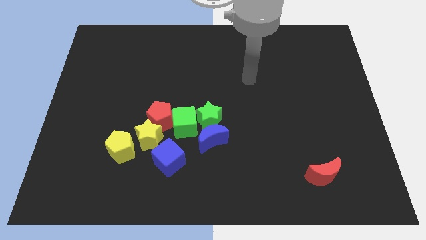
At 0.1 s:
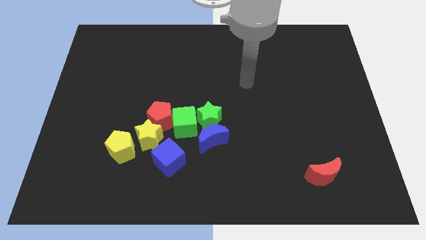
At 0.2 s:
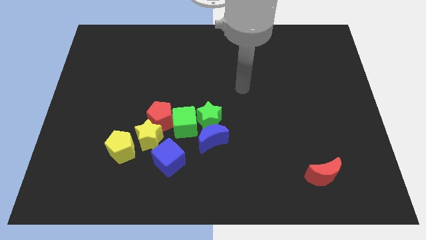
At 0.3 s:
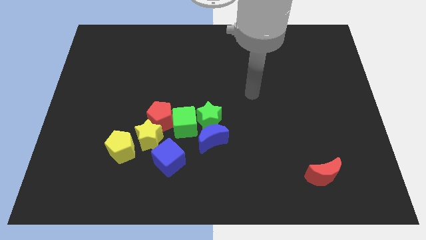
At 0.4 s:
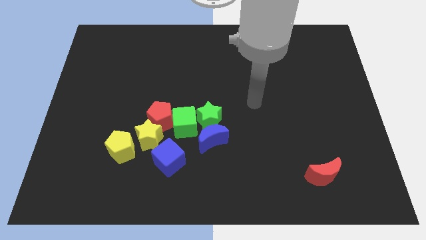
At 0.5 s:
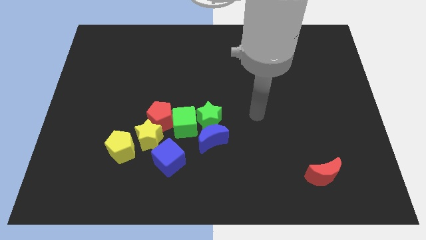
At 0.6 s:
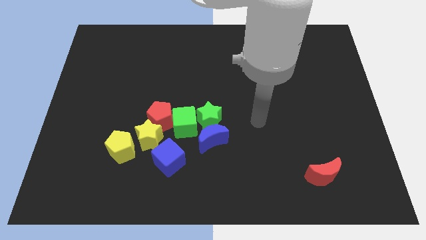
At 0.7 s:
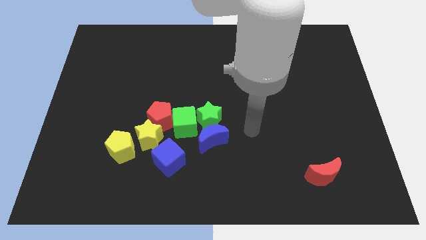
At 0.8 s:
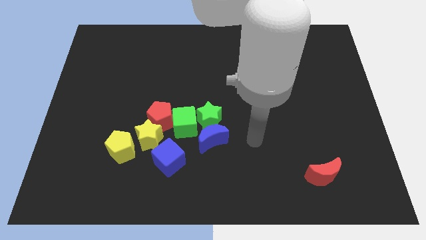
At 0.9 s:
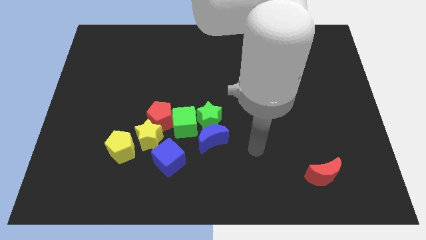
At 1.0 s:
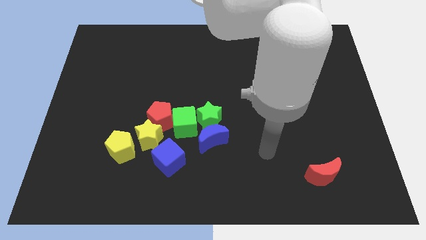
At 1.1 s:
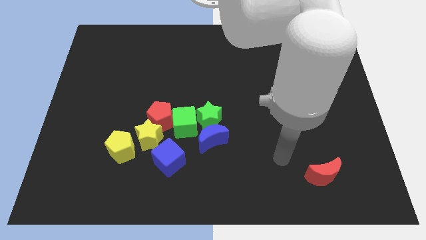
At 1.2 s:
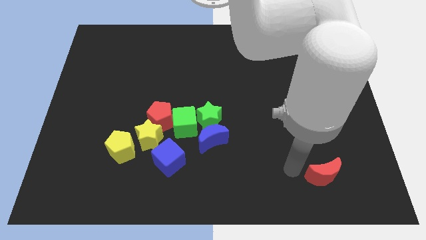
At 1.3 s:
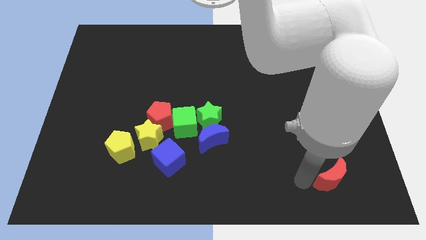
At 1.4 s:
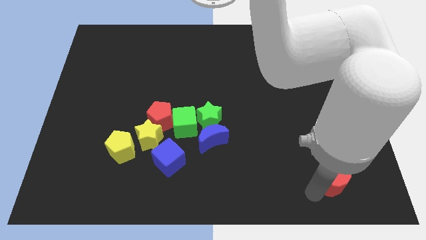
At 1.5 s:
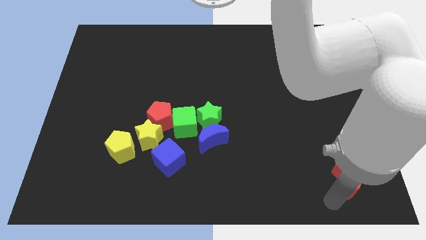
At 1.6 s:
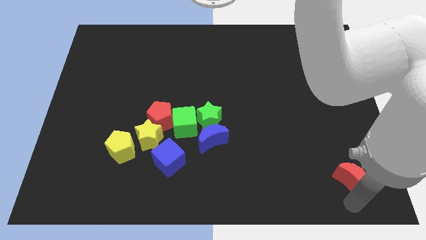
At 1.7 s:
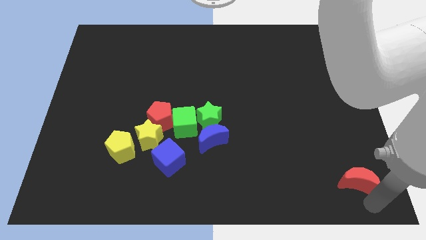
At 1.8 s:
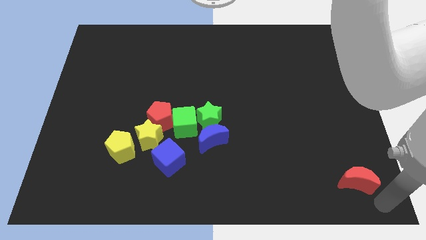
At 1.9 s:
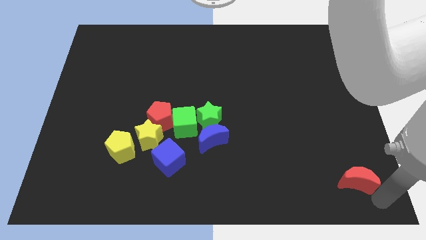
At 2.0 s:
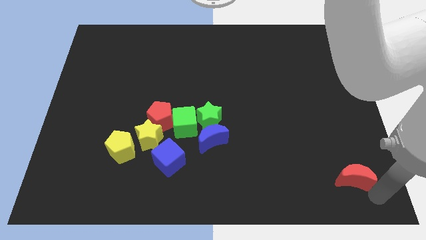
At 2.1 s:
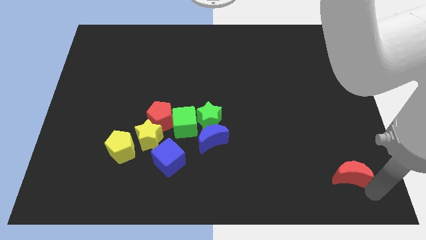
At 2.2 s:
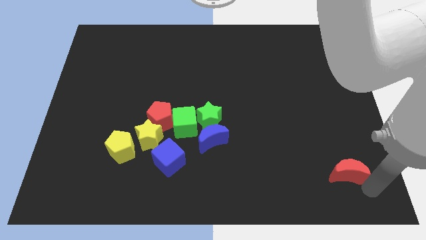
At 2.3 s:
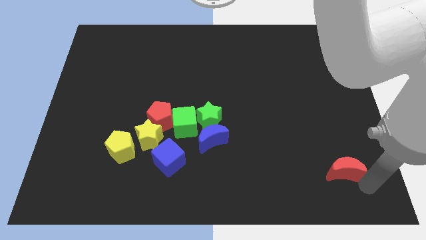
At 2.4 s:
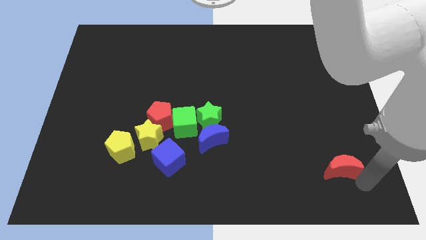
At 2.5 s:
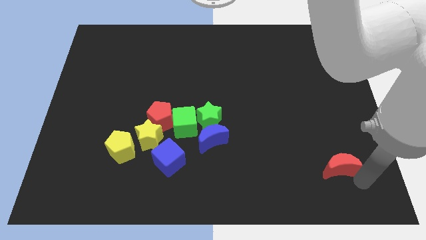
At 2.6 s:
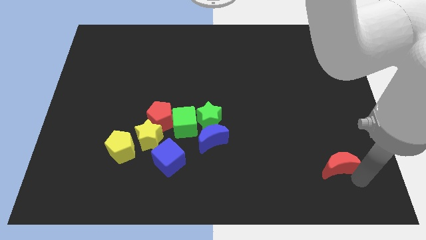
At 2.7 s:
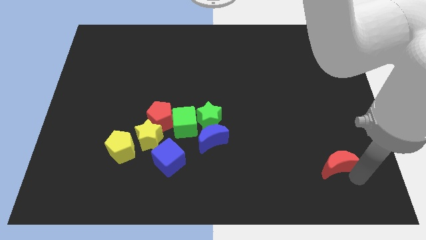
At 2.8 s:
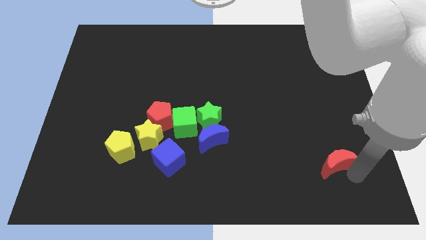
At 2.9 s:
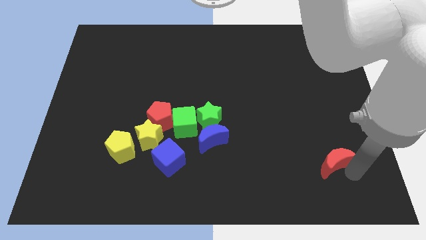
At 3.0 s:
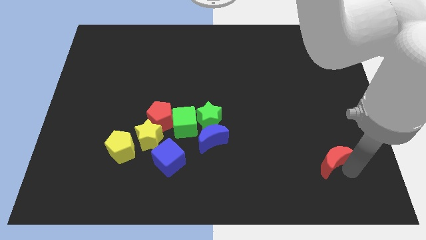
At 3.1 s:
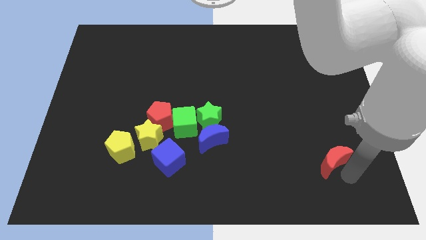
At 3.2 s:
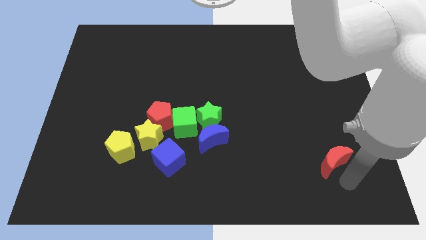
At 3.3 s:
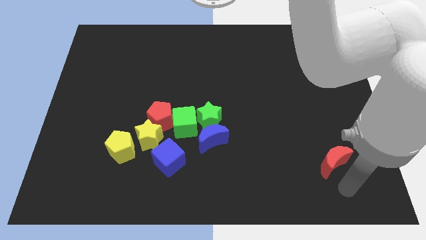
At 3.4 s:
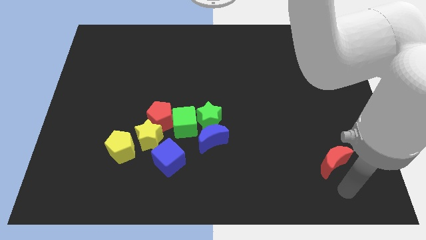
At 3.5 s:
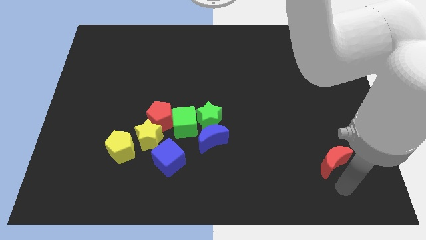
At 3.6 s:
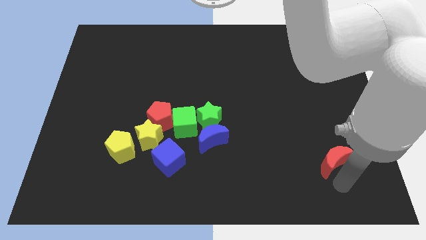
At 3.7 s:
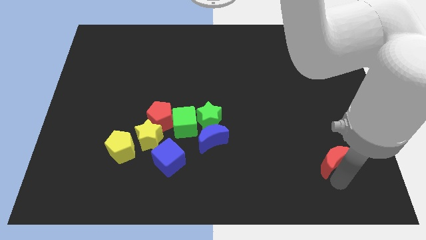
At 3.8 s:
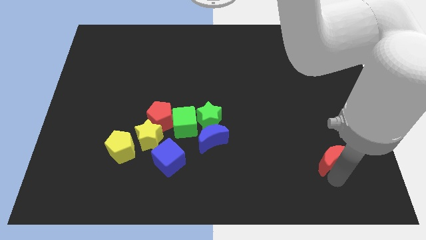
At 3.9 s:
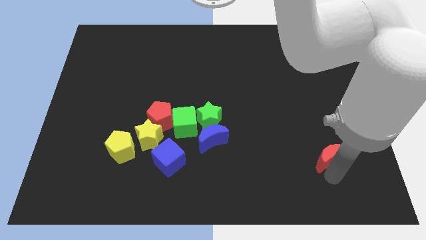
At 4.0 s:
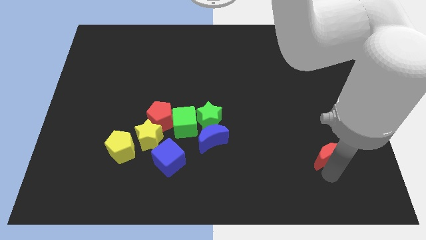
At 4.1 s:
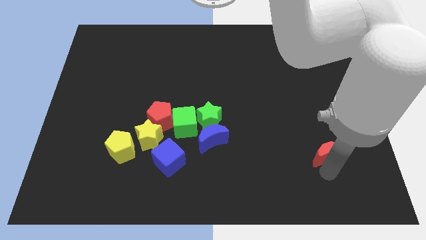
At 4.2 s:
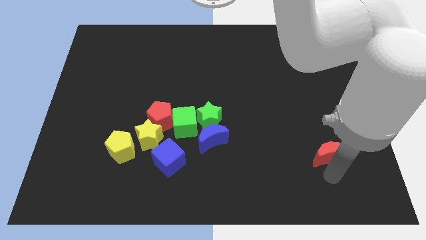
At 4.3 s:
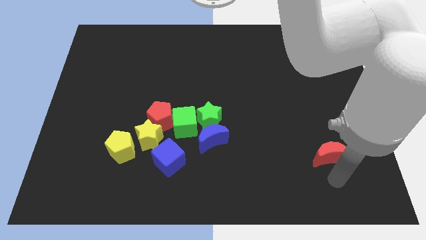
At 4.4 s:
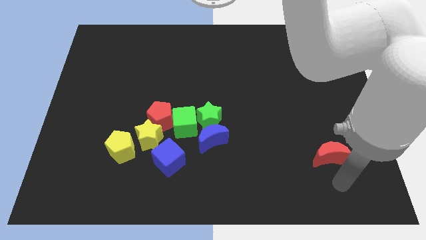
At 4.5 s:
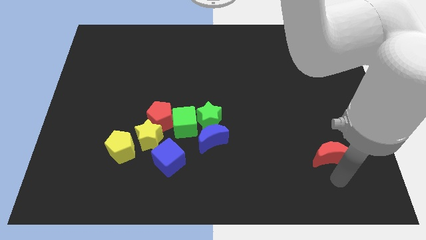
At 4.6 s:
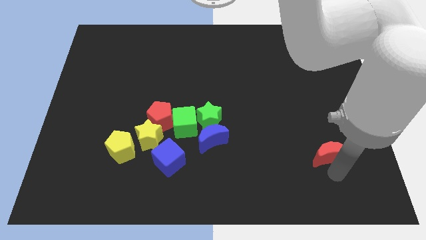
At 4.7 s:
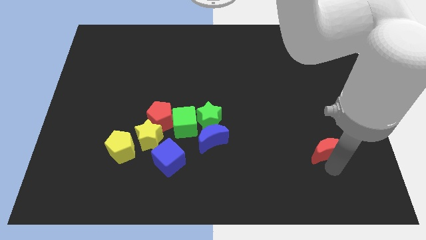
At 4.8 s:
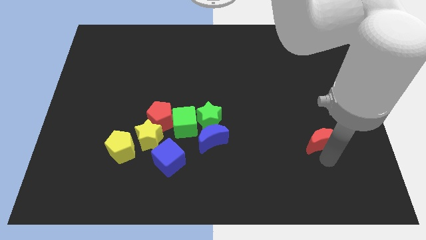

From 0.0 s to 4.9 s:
slightly push the red moon up

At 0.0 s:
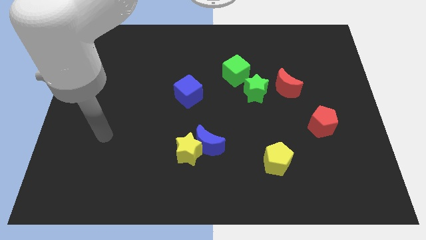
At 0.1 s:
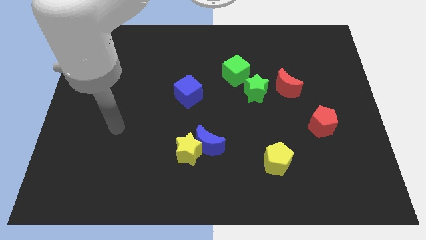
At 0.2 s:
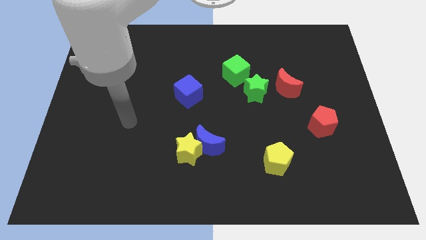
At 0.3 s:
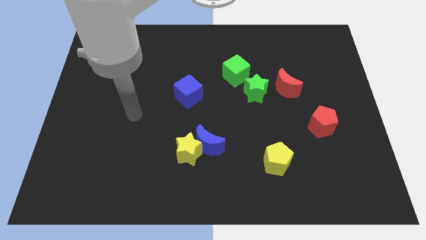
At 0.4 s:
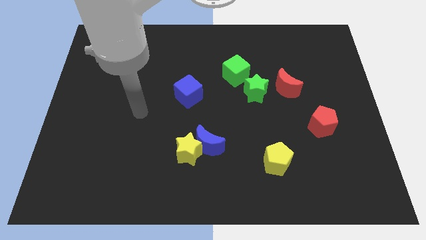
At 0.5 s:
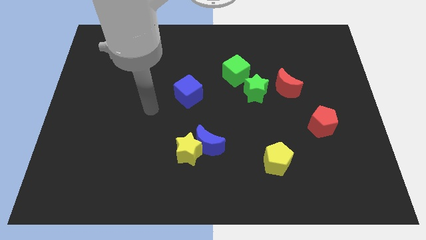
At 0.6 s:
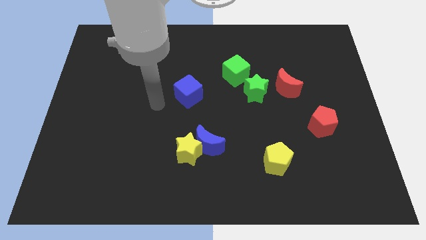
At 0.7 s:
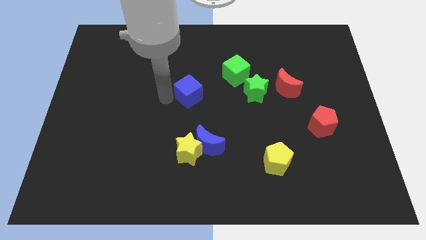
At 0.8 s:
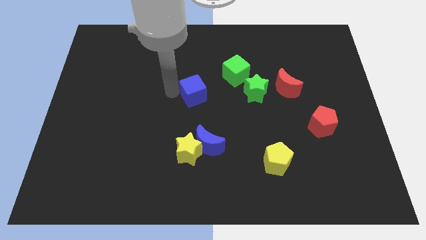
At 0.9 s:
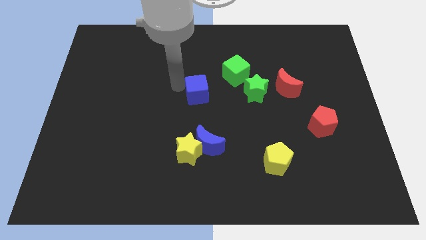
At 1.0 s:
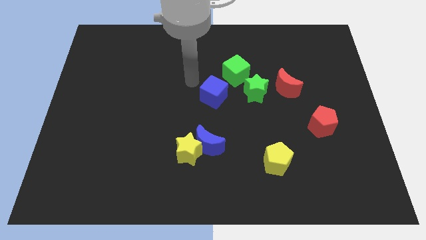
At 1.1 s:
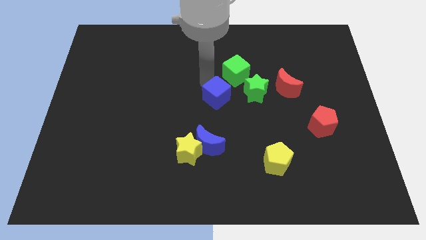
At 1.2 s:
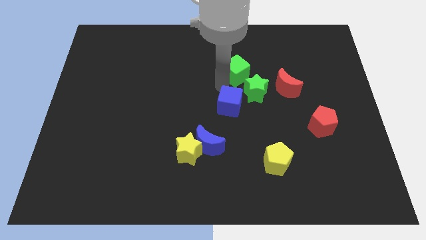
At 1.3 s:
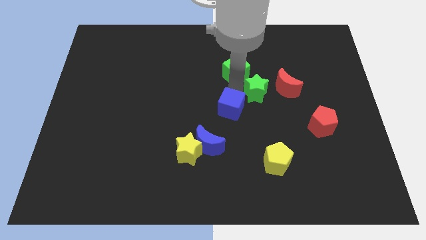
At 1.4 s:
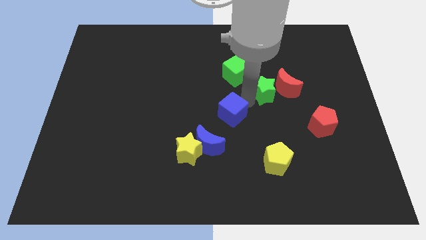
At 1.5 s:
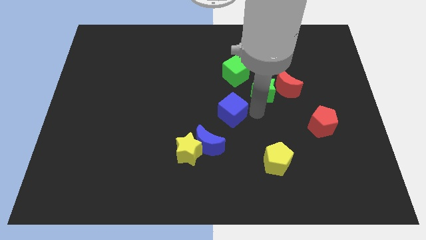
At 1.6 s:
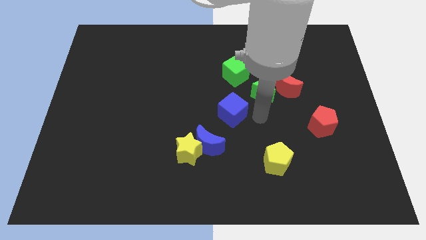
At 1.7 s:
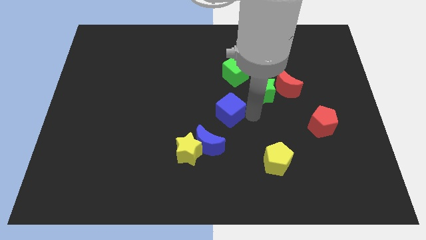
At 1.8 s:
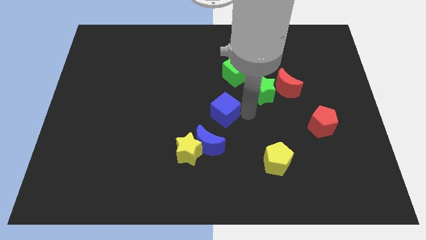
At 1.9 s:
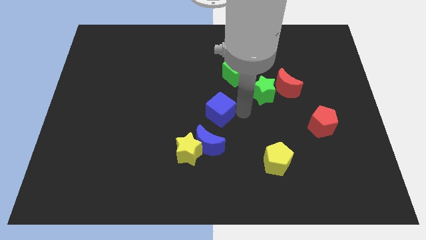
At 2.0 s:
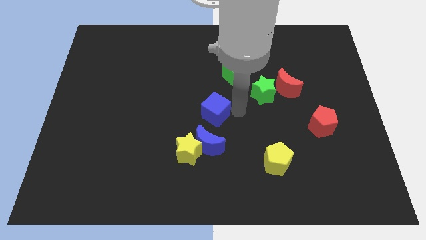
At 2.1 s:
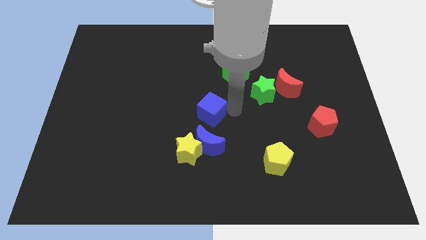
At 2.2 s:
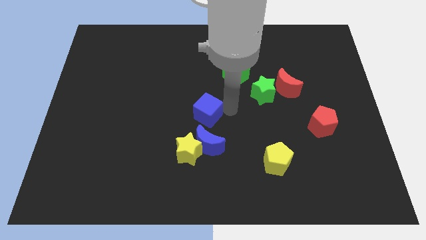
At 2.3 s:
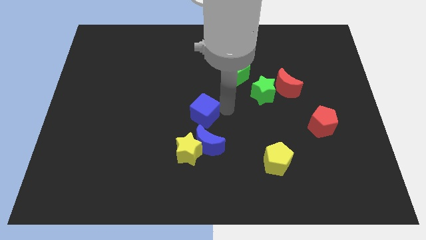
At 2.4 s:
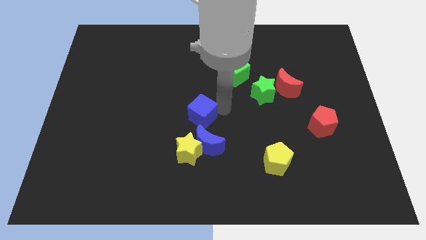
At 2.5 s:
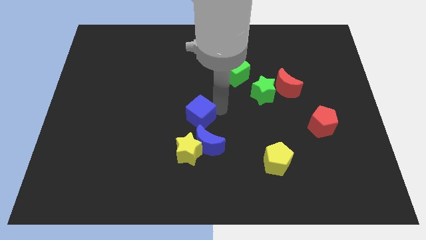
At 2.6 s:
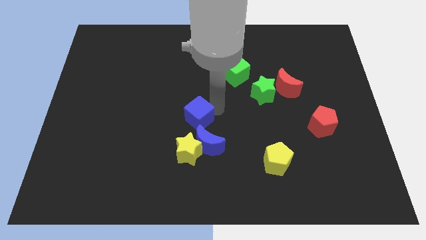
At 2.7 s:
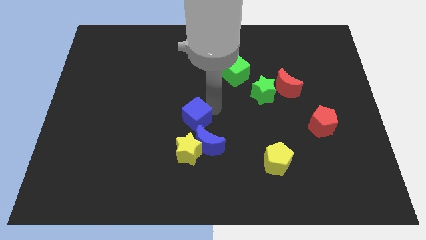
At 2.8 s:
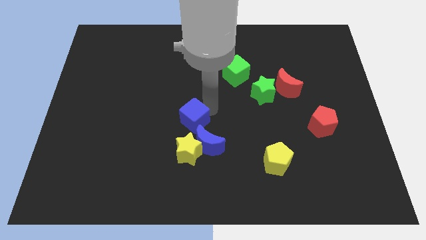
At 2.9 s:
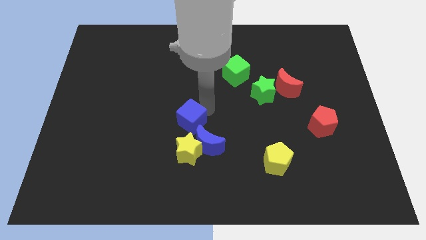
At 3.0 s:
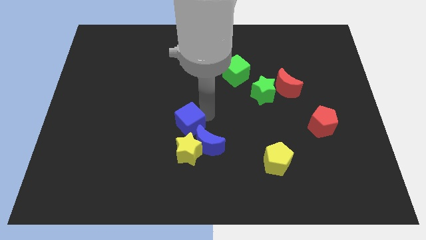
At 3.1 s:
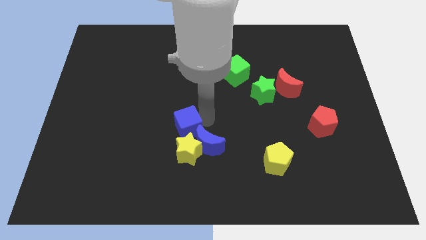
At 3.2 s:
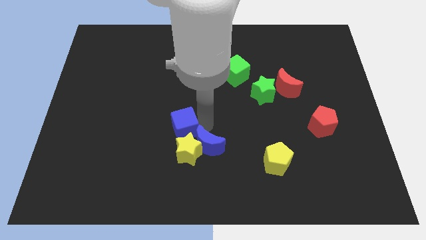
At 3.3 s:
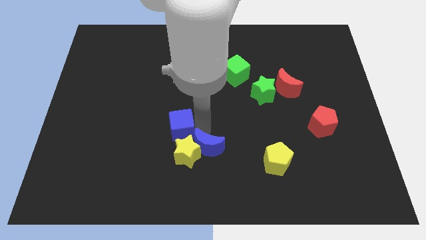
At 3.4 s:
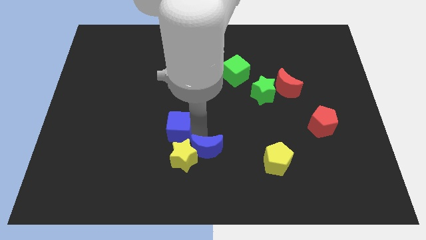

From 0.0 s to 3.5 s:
move the blue cube down and then left somewhat
